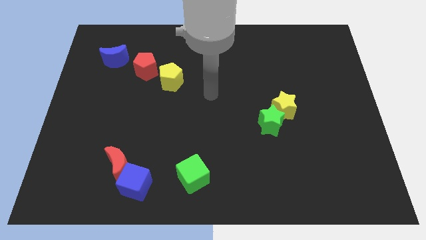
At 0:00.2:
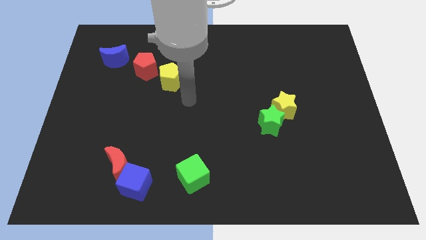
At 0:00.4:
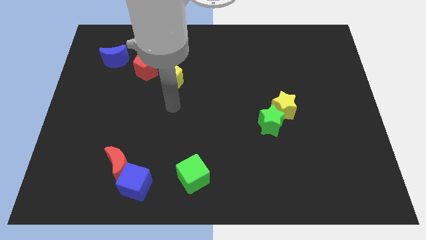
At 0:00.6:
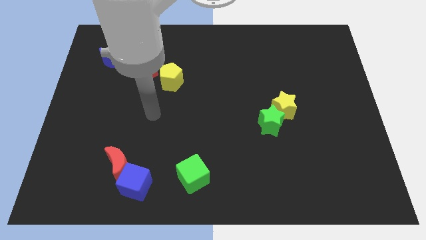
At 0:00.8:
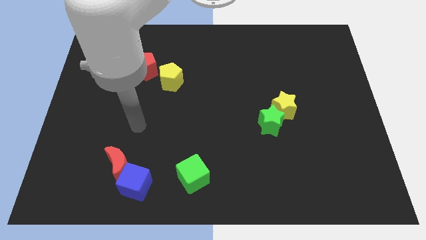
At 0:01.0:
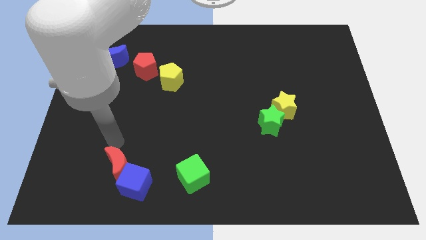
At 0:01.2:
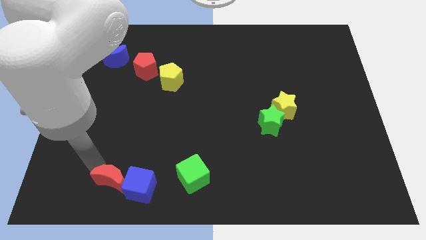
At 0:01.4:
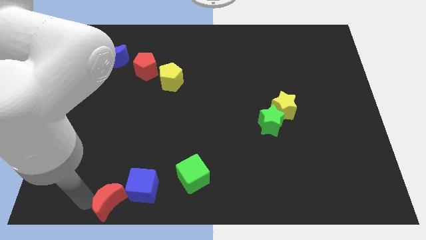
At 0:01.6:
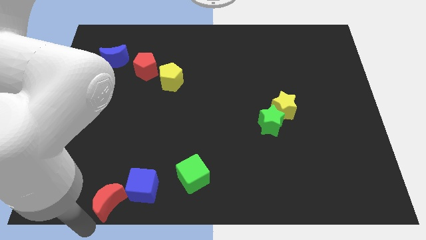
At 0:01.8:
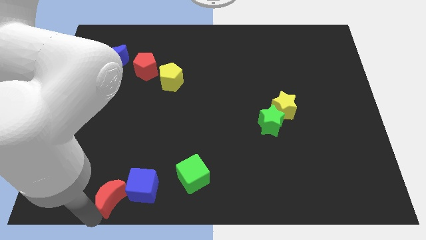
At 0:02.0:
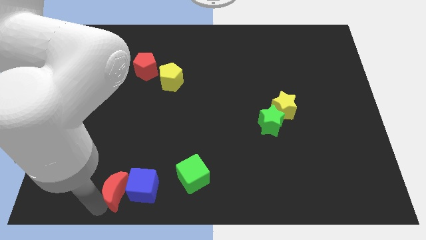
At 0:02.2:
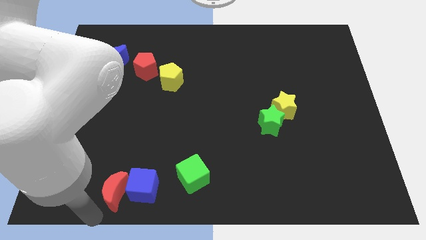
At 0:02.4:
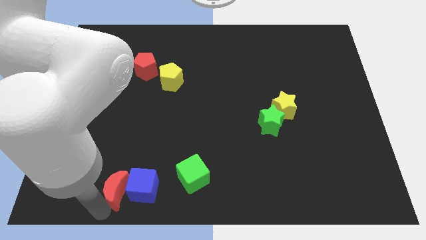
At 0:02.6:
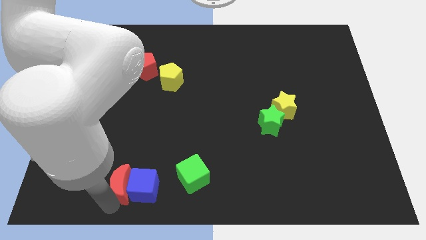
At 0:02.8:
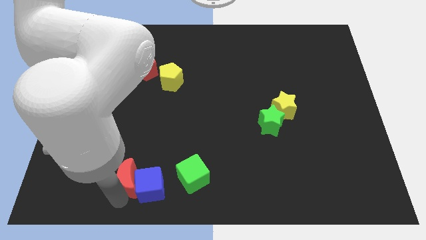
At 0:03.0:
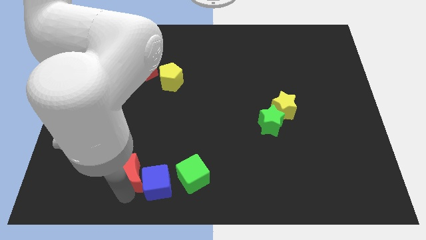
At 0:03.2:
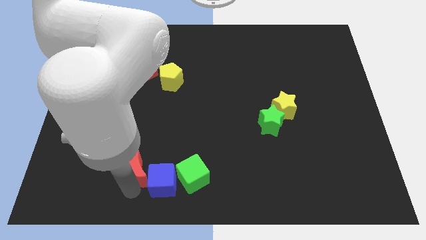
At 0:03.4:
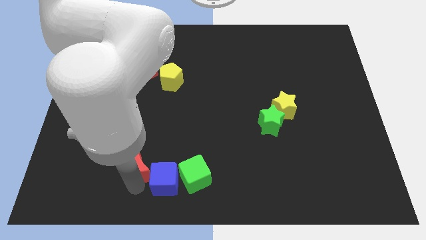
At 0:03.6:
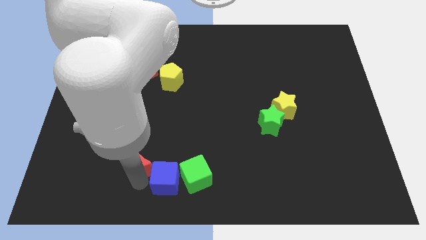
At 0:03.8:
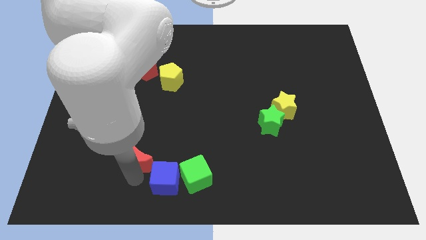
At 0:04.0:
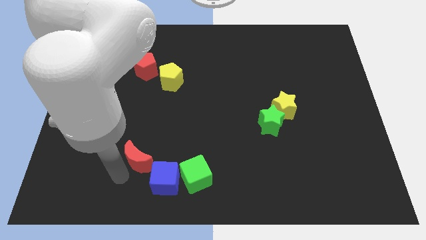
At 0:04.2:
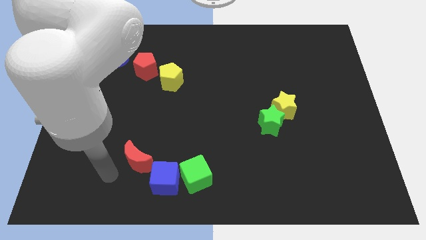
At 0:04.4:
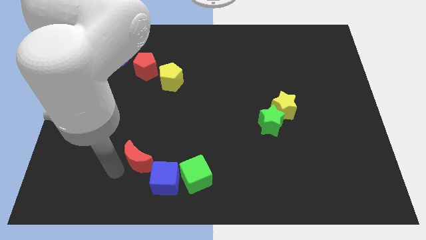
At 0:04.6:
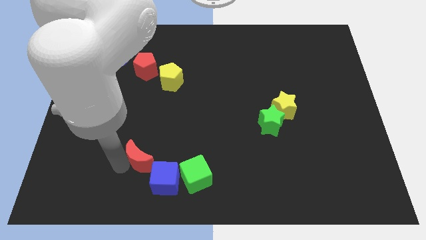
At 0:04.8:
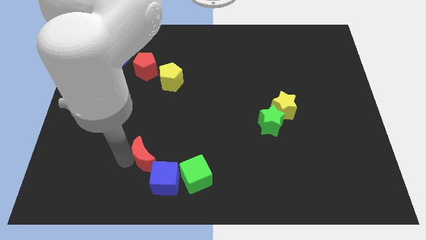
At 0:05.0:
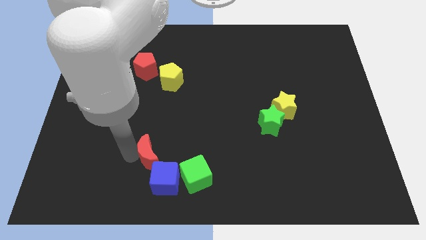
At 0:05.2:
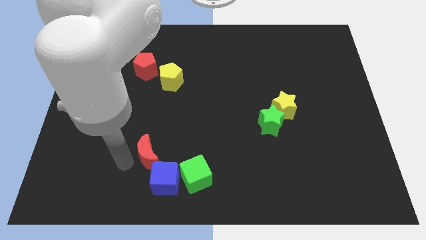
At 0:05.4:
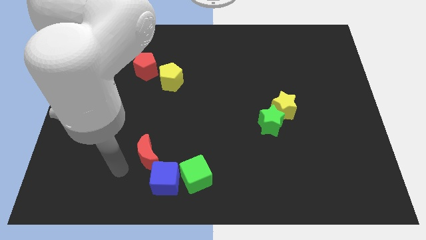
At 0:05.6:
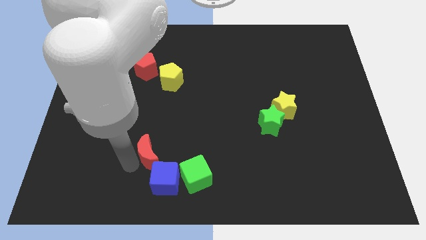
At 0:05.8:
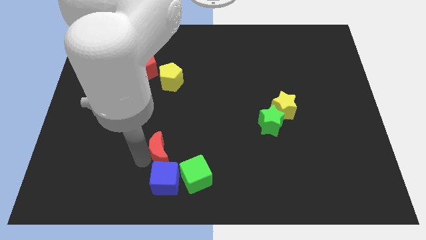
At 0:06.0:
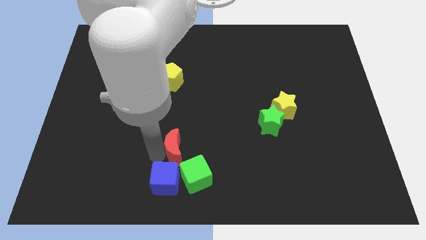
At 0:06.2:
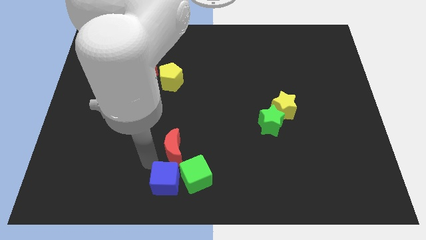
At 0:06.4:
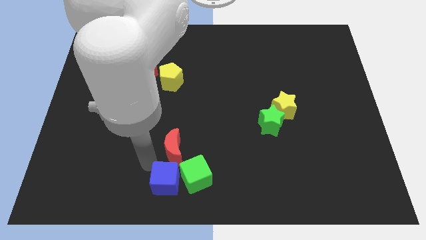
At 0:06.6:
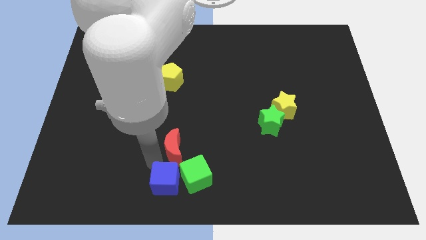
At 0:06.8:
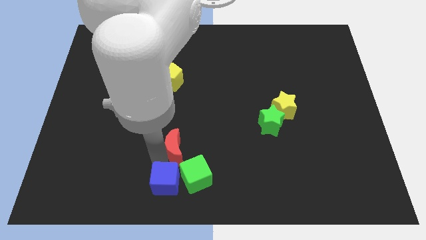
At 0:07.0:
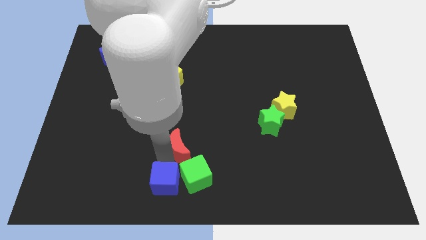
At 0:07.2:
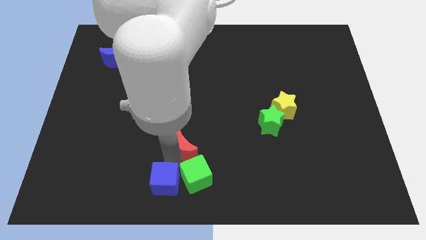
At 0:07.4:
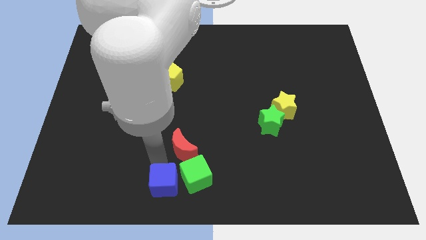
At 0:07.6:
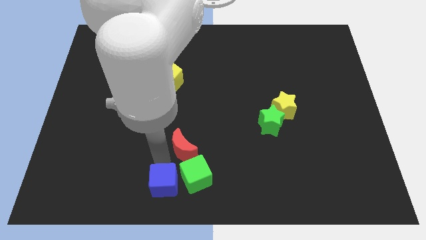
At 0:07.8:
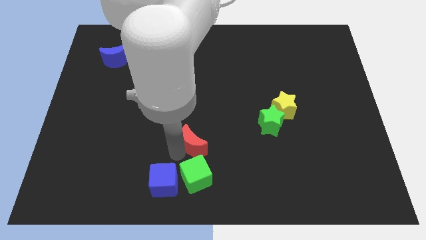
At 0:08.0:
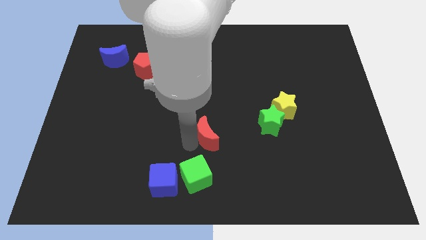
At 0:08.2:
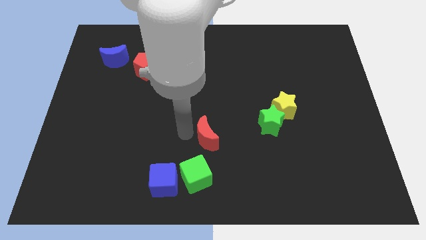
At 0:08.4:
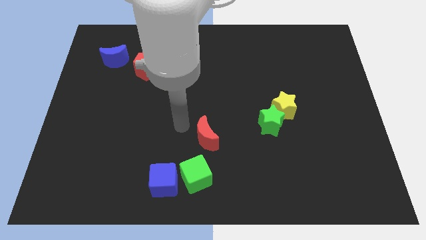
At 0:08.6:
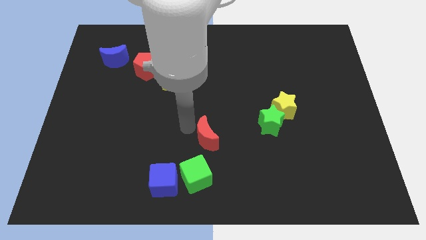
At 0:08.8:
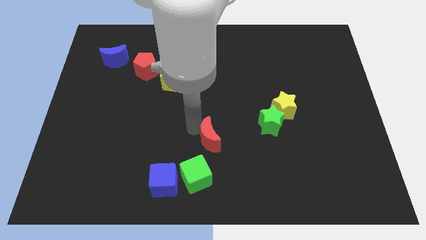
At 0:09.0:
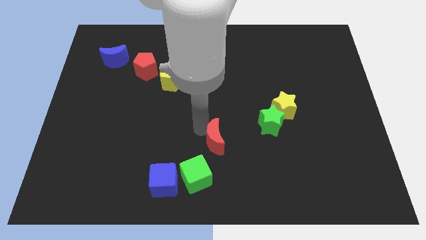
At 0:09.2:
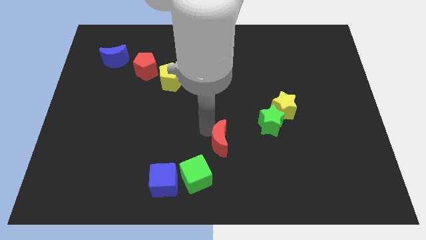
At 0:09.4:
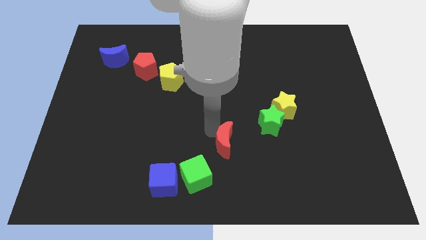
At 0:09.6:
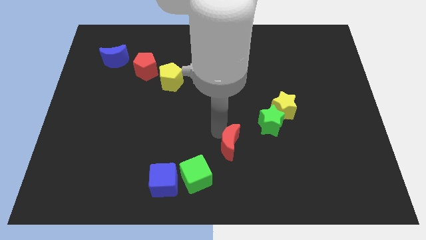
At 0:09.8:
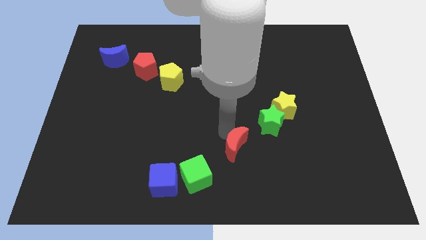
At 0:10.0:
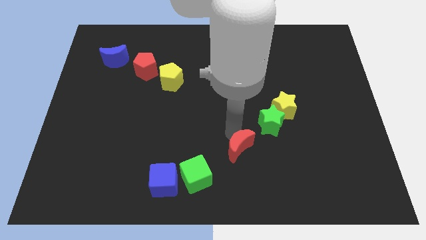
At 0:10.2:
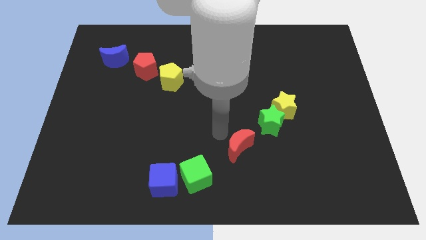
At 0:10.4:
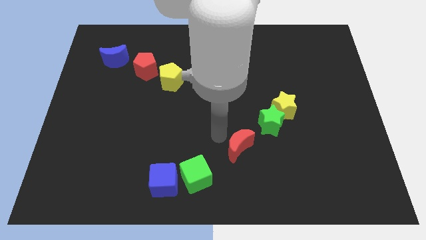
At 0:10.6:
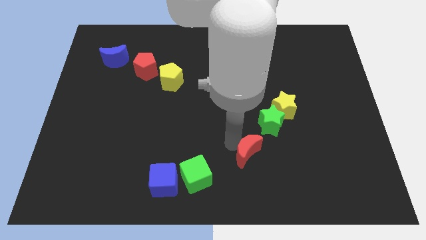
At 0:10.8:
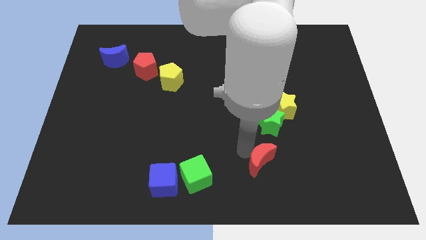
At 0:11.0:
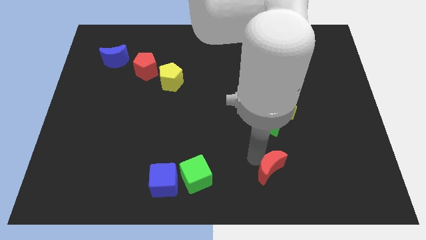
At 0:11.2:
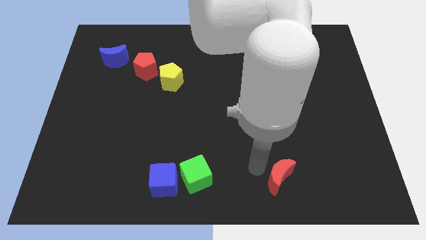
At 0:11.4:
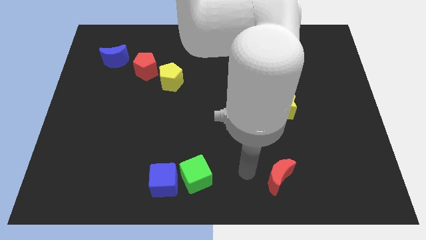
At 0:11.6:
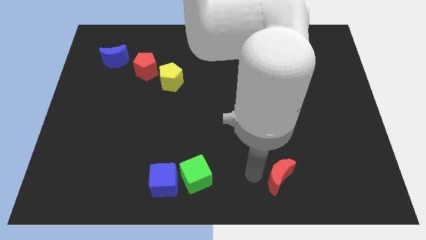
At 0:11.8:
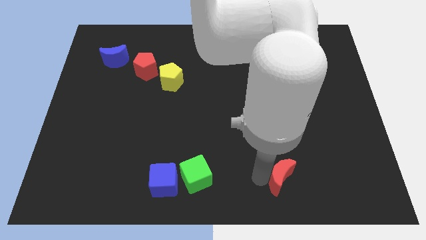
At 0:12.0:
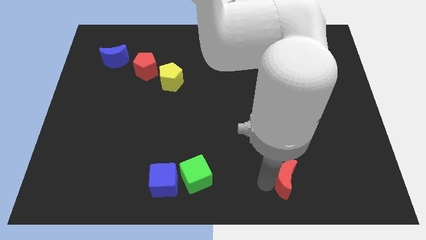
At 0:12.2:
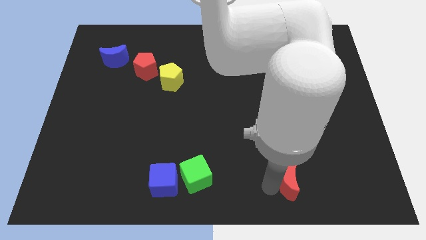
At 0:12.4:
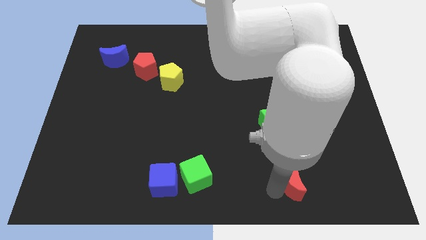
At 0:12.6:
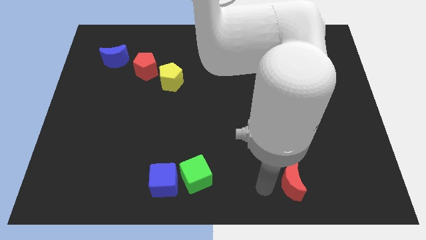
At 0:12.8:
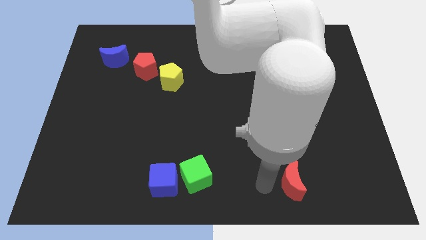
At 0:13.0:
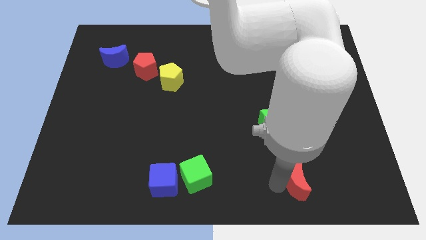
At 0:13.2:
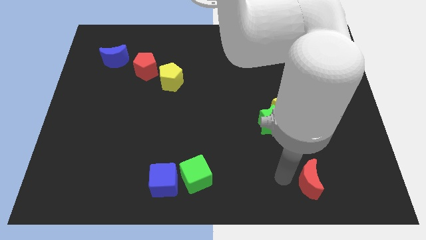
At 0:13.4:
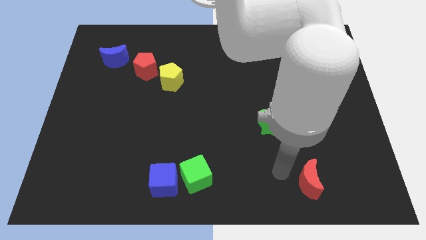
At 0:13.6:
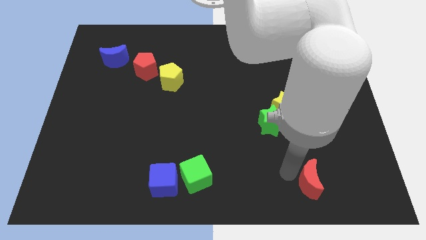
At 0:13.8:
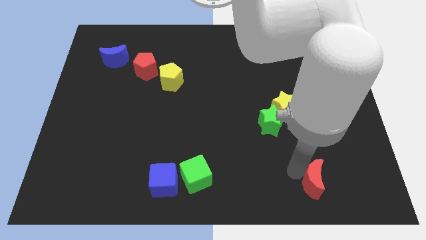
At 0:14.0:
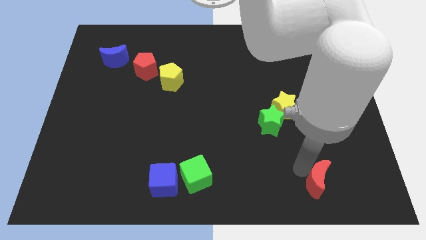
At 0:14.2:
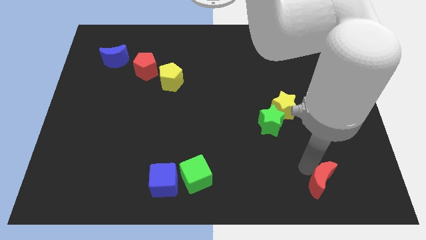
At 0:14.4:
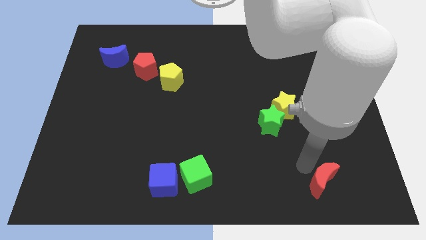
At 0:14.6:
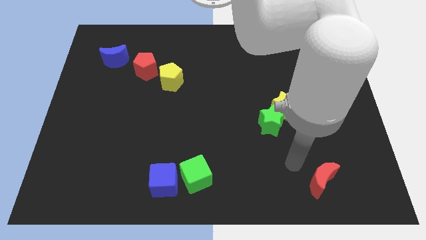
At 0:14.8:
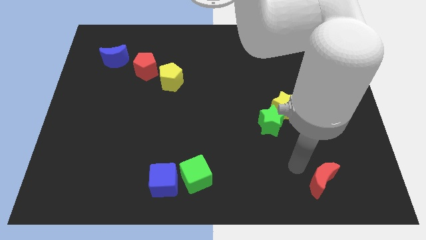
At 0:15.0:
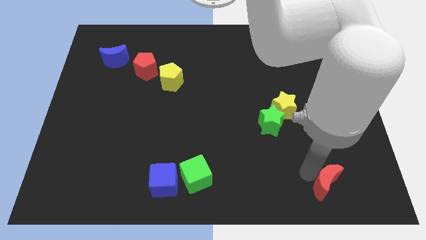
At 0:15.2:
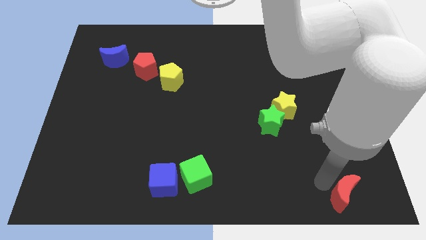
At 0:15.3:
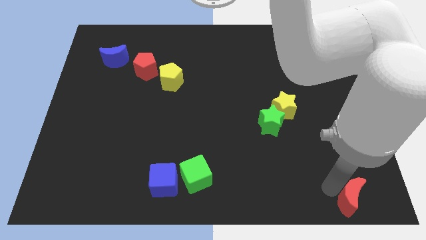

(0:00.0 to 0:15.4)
put the red moon to the bottom right of the board
